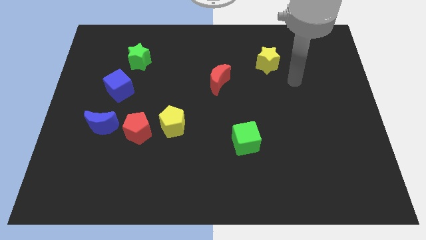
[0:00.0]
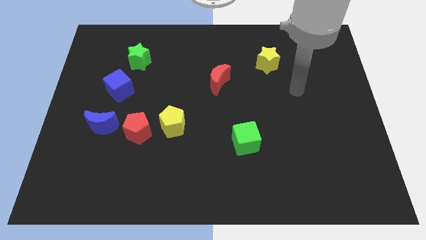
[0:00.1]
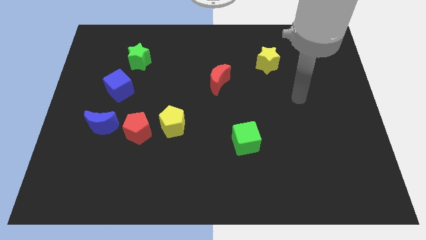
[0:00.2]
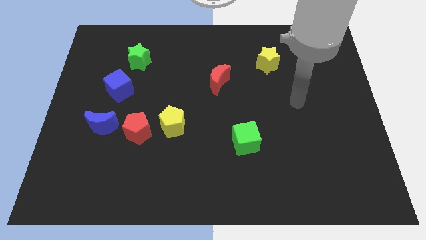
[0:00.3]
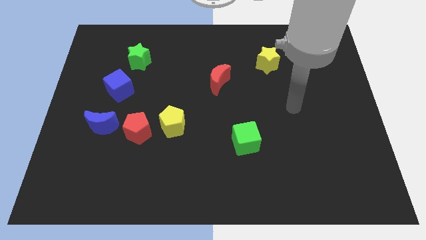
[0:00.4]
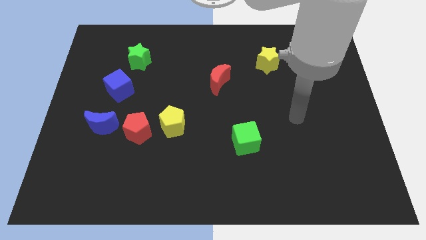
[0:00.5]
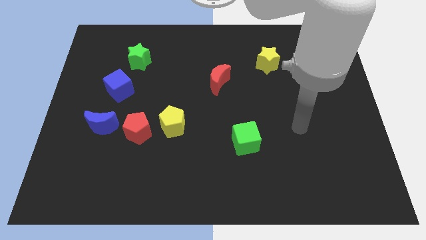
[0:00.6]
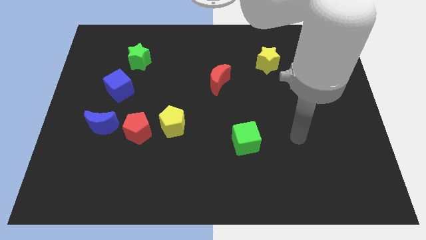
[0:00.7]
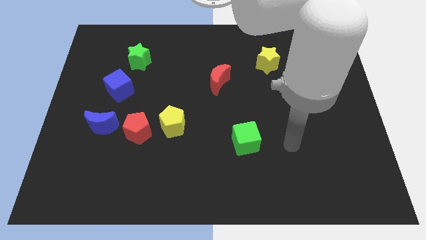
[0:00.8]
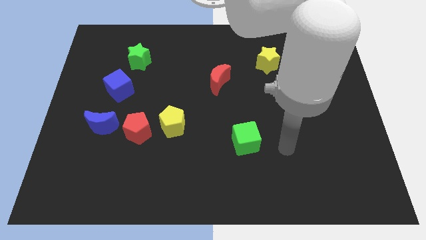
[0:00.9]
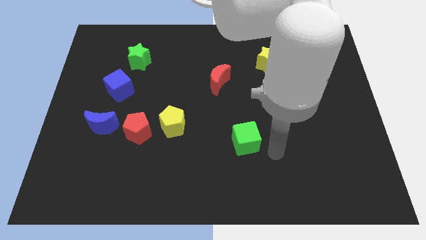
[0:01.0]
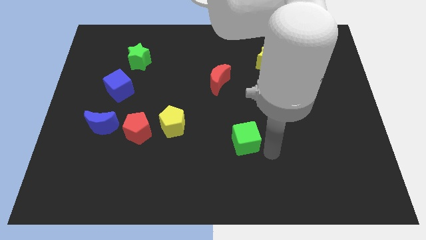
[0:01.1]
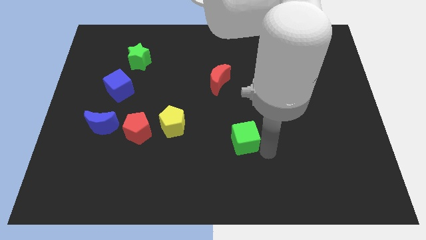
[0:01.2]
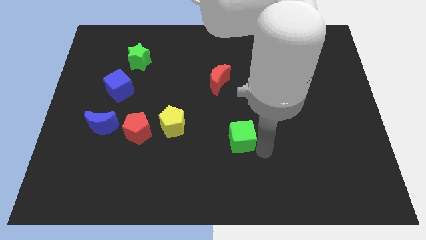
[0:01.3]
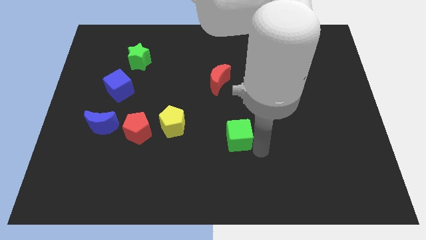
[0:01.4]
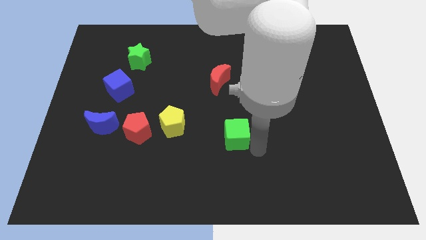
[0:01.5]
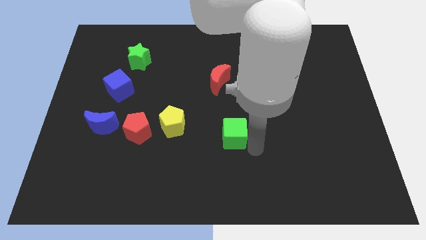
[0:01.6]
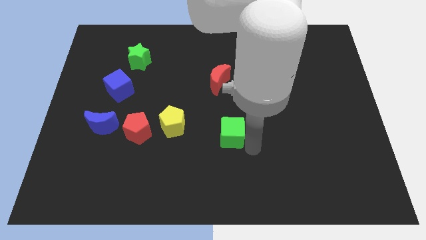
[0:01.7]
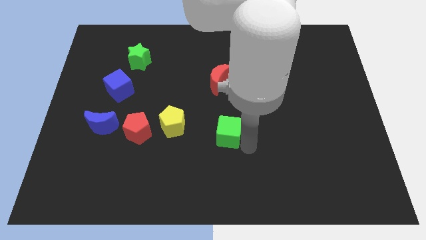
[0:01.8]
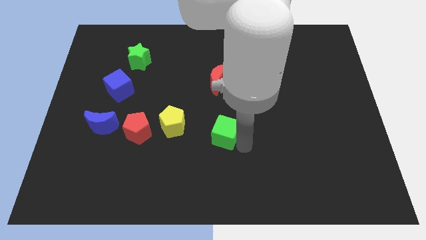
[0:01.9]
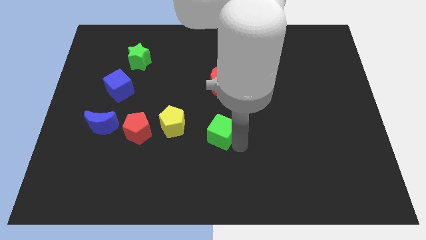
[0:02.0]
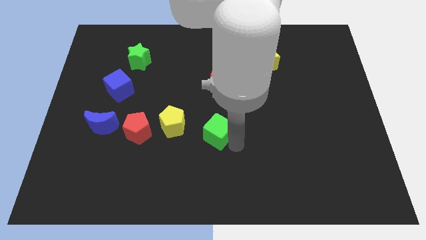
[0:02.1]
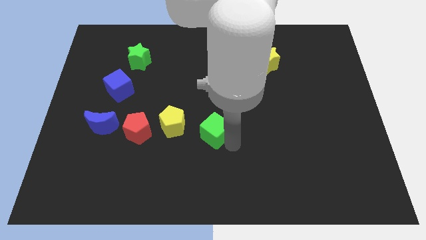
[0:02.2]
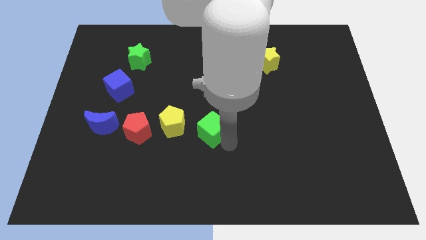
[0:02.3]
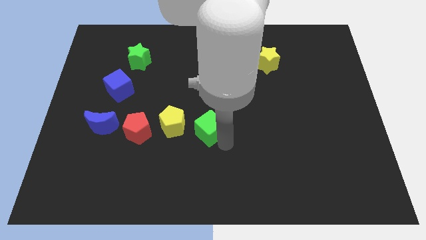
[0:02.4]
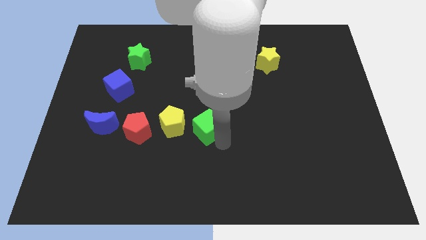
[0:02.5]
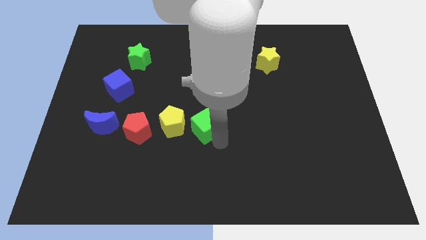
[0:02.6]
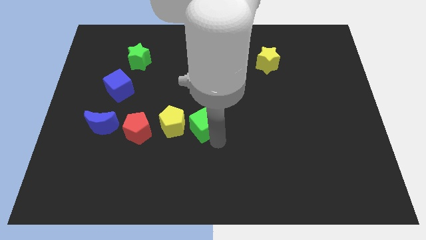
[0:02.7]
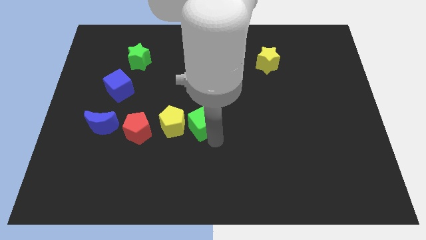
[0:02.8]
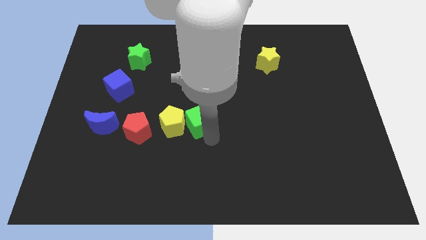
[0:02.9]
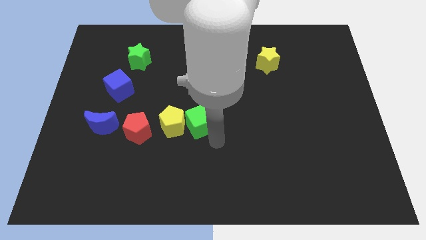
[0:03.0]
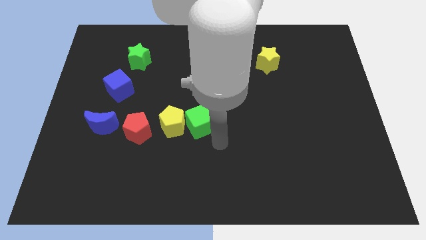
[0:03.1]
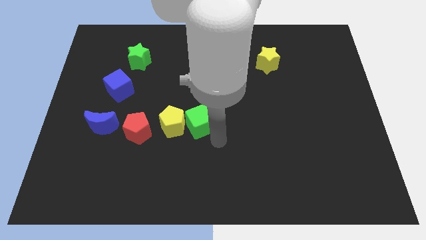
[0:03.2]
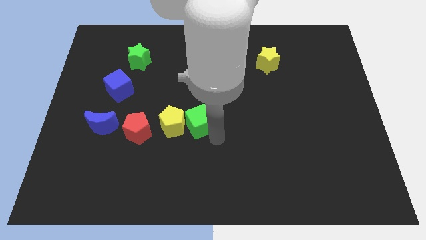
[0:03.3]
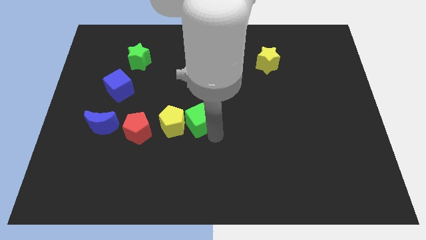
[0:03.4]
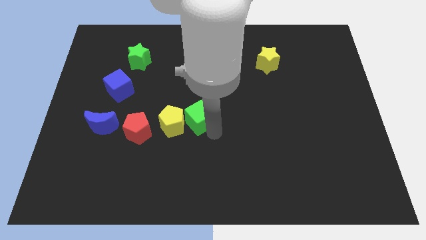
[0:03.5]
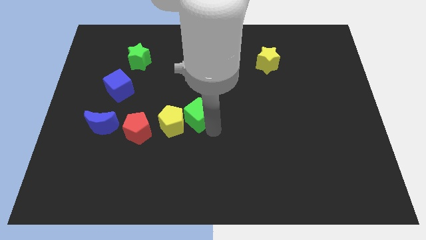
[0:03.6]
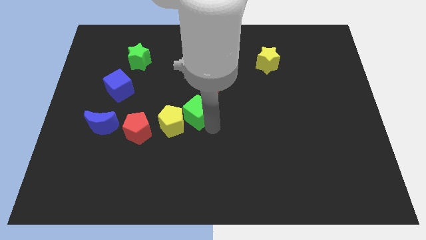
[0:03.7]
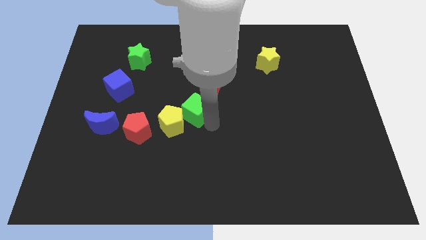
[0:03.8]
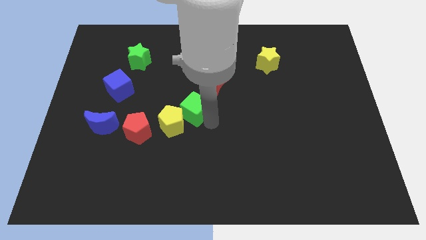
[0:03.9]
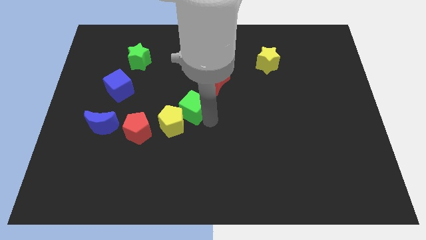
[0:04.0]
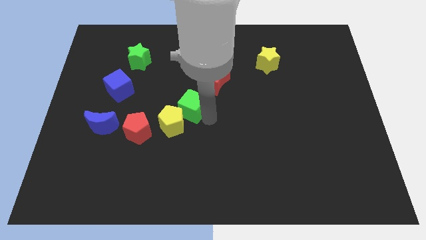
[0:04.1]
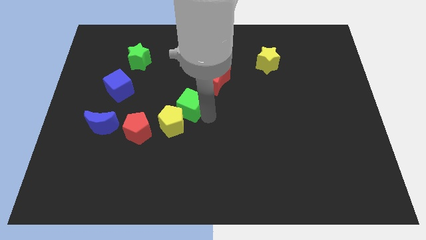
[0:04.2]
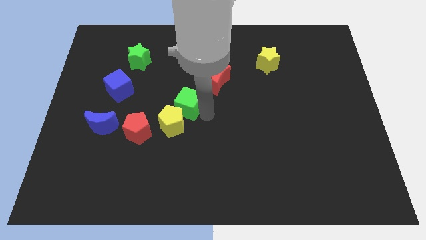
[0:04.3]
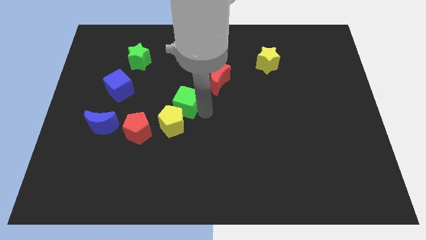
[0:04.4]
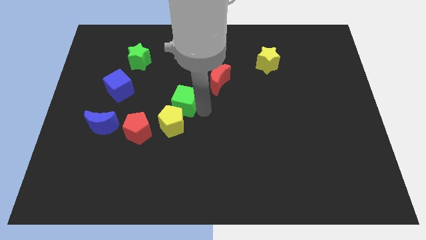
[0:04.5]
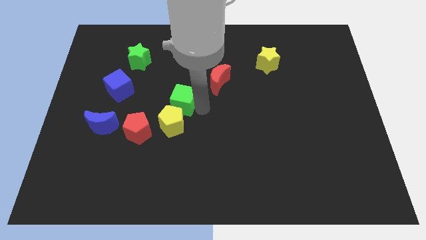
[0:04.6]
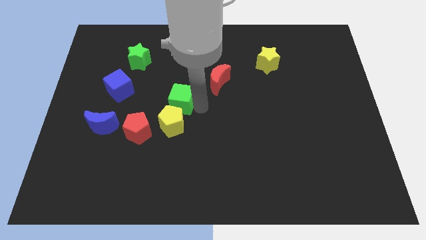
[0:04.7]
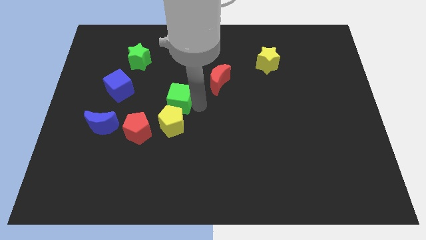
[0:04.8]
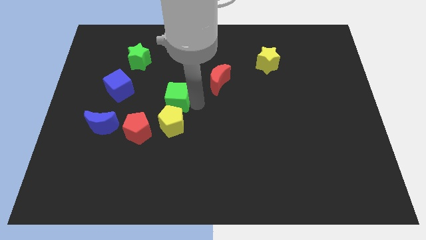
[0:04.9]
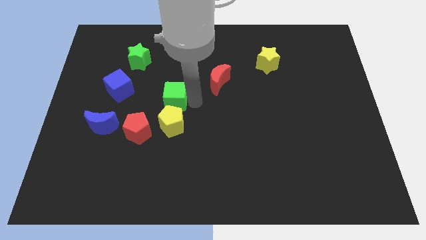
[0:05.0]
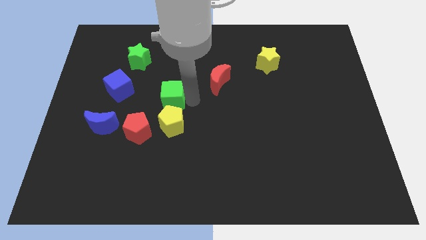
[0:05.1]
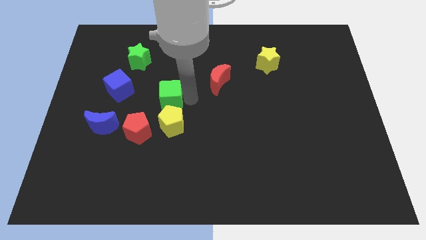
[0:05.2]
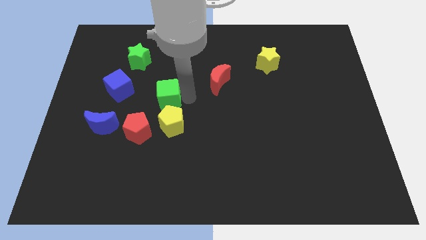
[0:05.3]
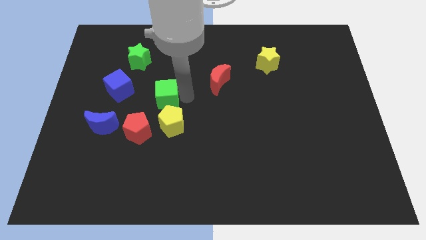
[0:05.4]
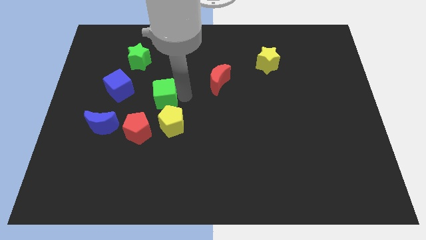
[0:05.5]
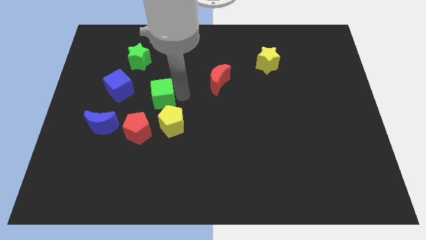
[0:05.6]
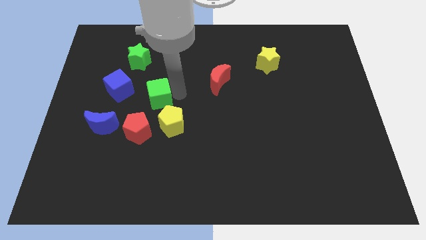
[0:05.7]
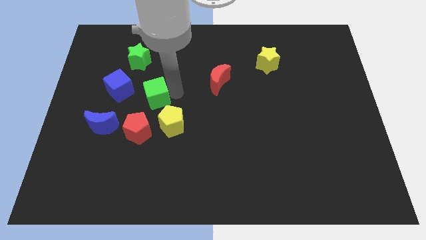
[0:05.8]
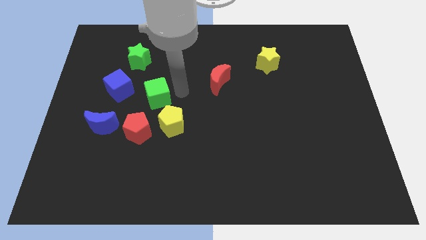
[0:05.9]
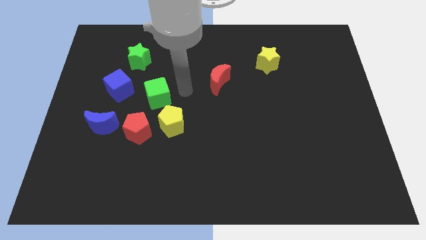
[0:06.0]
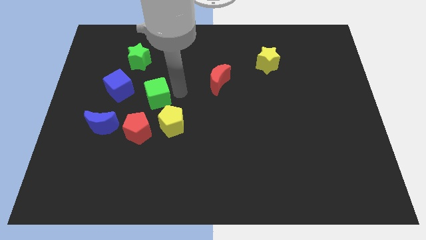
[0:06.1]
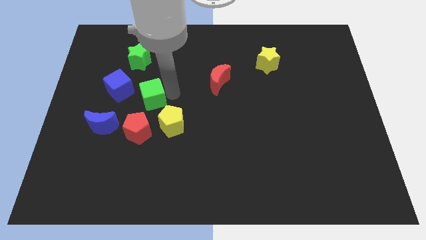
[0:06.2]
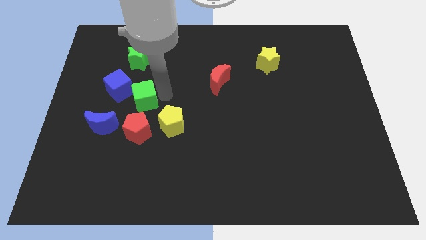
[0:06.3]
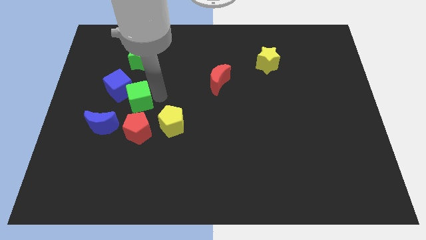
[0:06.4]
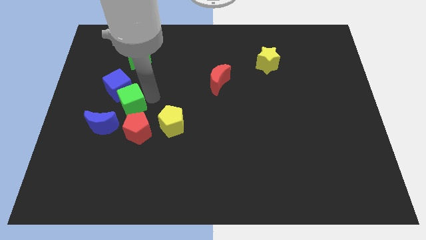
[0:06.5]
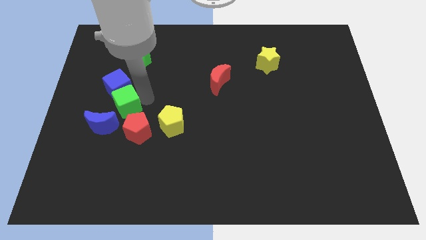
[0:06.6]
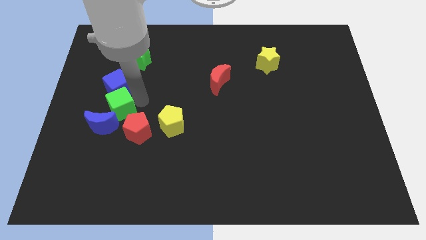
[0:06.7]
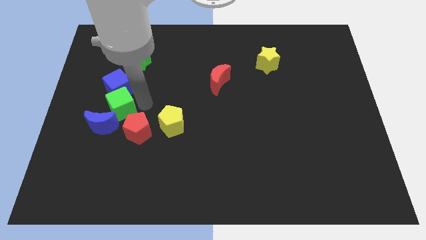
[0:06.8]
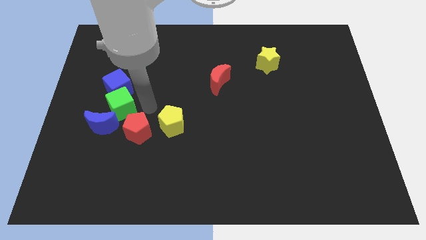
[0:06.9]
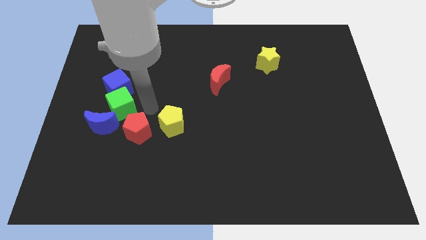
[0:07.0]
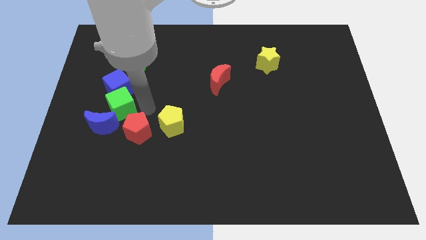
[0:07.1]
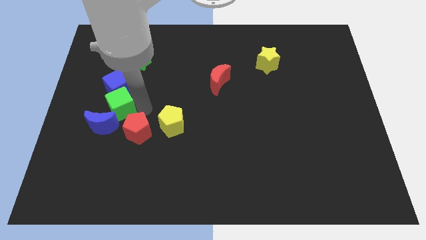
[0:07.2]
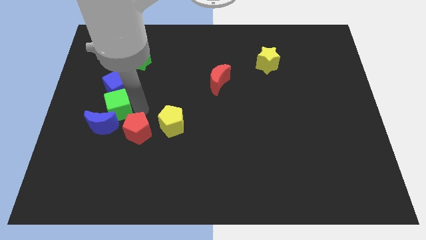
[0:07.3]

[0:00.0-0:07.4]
move the green cube to the bottom left side of the blue cube
